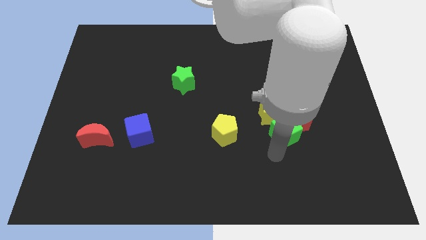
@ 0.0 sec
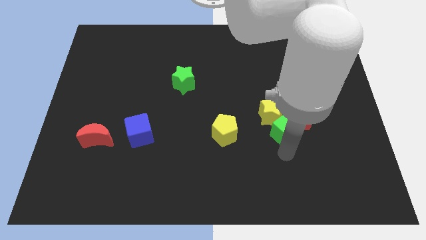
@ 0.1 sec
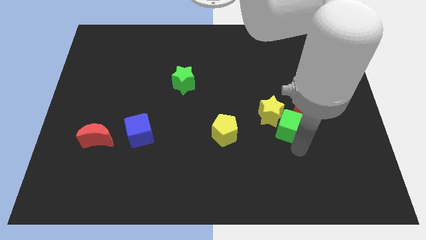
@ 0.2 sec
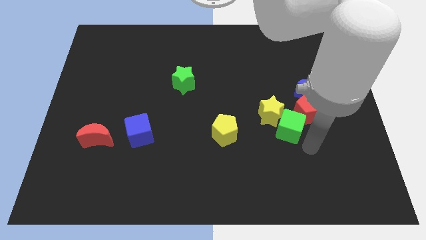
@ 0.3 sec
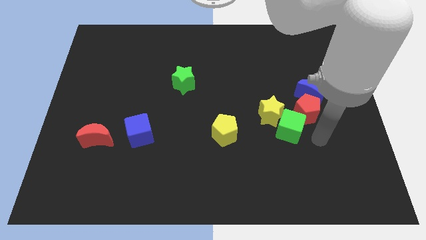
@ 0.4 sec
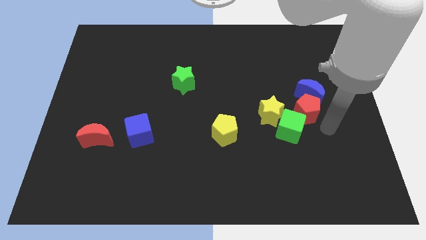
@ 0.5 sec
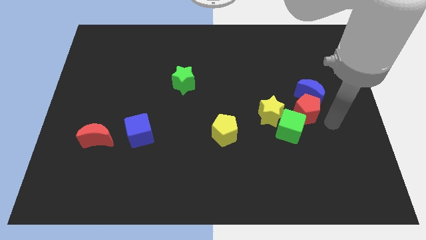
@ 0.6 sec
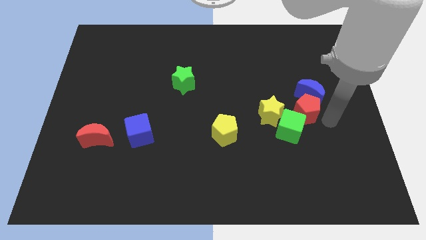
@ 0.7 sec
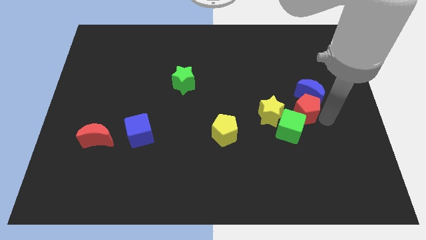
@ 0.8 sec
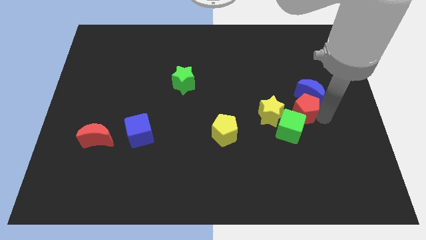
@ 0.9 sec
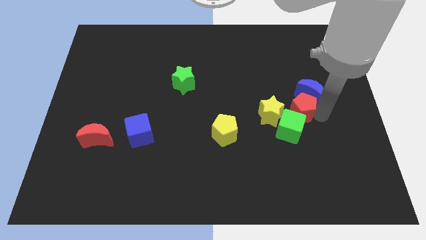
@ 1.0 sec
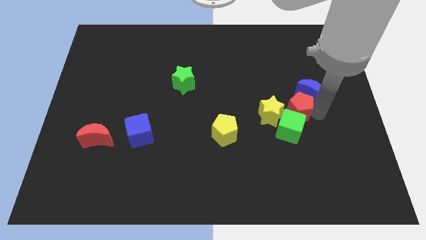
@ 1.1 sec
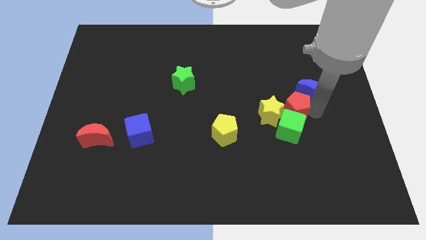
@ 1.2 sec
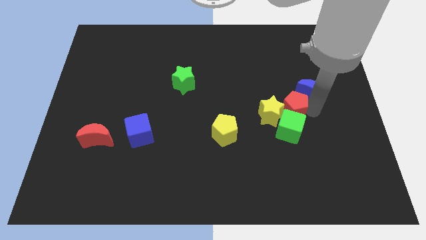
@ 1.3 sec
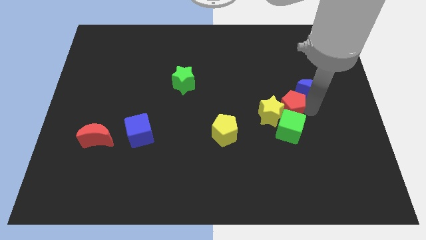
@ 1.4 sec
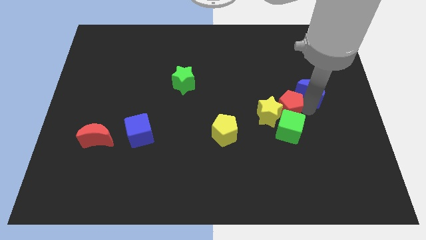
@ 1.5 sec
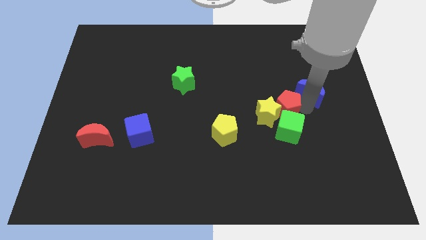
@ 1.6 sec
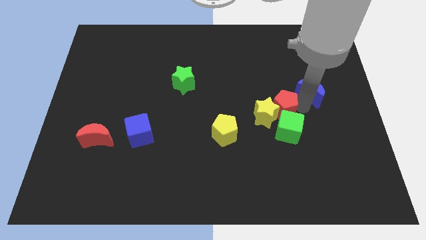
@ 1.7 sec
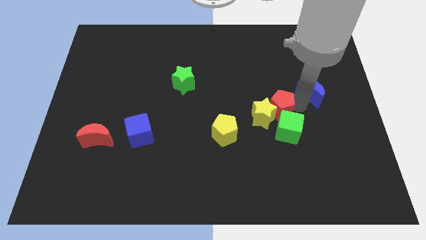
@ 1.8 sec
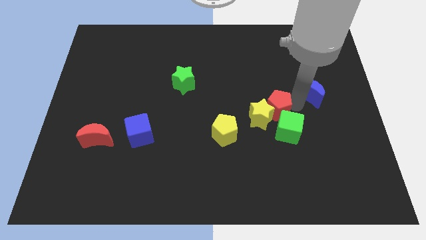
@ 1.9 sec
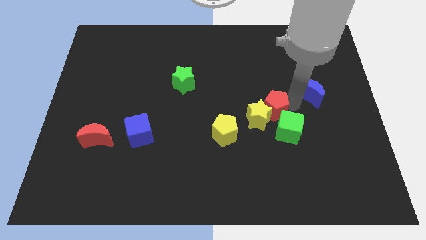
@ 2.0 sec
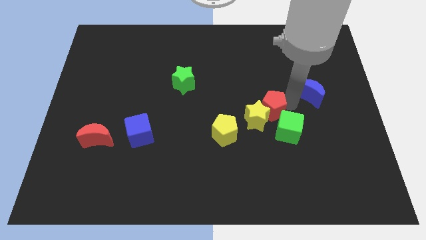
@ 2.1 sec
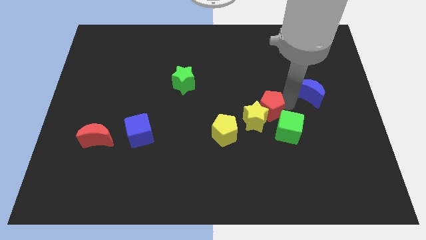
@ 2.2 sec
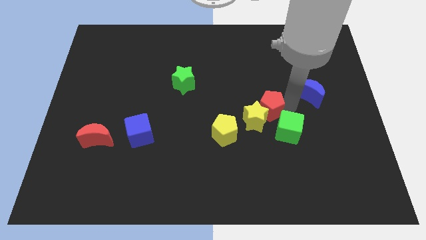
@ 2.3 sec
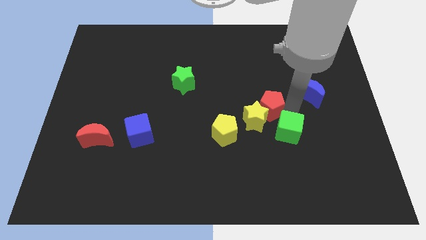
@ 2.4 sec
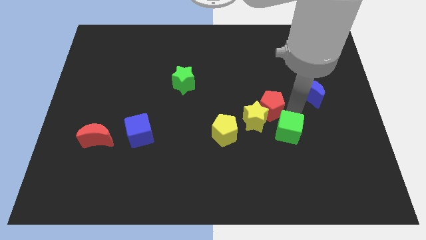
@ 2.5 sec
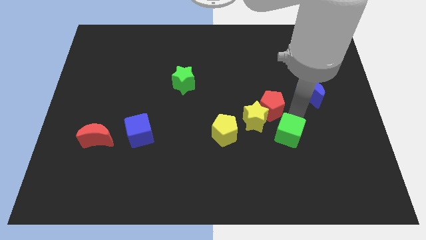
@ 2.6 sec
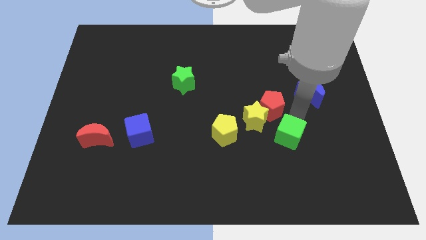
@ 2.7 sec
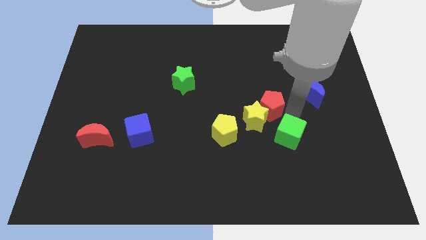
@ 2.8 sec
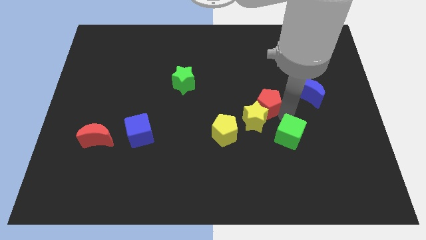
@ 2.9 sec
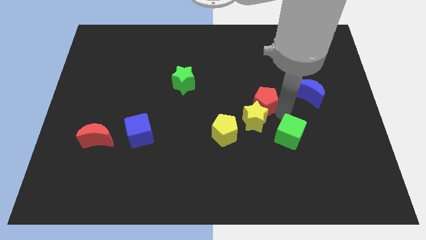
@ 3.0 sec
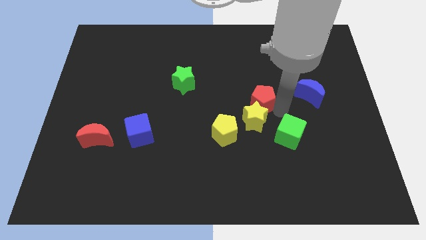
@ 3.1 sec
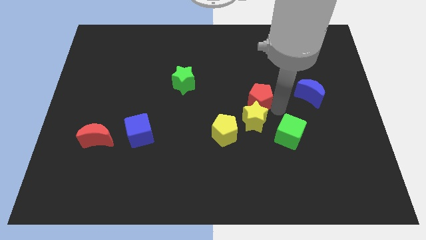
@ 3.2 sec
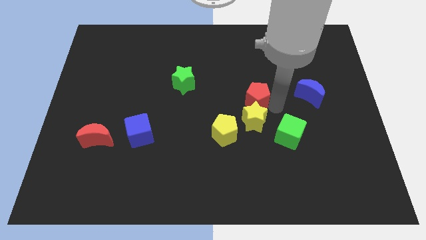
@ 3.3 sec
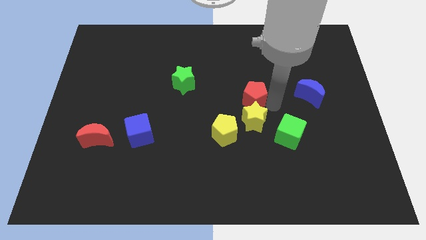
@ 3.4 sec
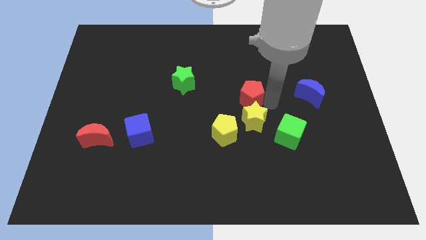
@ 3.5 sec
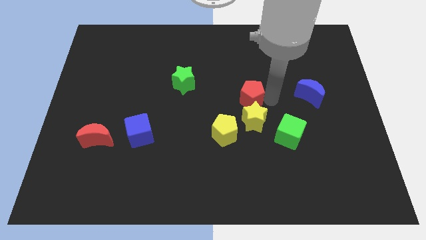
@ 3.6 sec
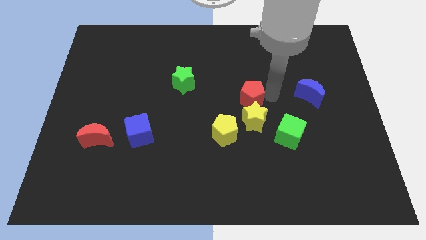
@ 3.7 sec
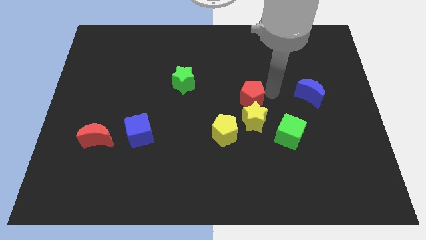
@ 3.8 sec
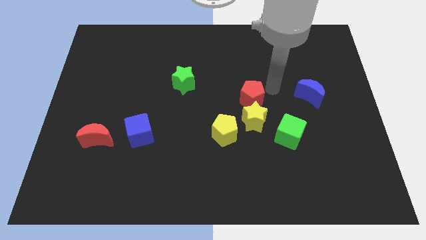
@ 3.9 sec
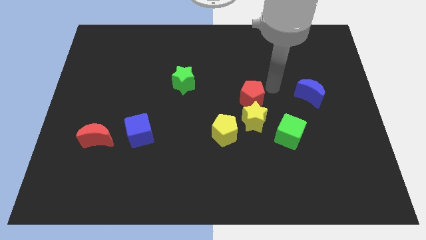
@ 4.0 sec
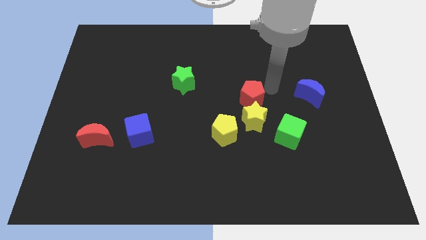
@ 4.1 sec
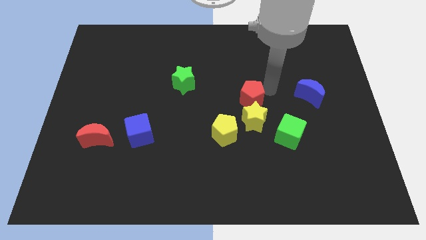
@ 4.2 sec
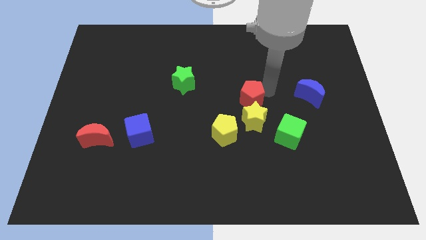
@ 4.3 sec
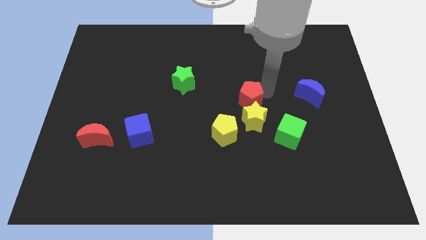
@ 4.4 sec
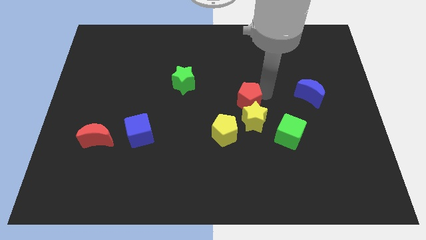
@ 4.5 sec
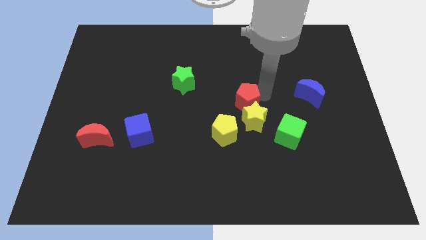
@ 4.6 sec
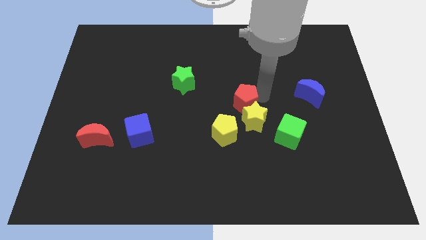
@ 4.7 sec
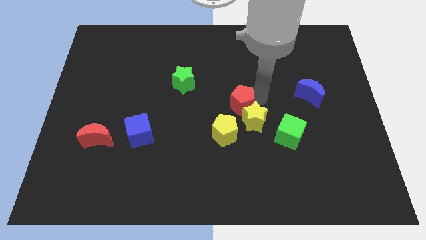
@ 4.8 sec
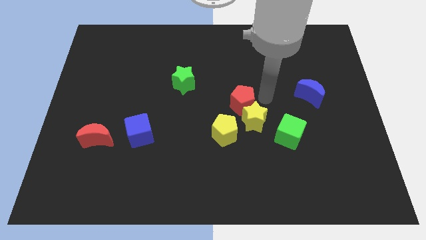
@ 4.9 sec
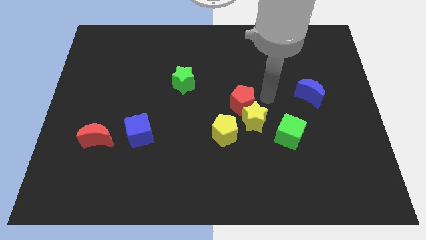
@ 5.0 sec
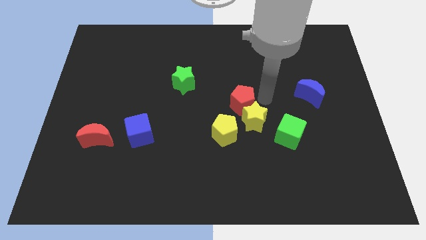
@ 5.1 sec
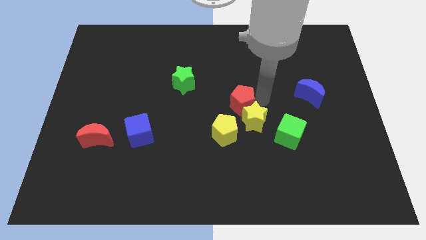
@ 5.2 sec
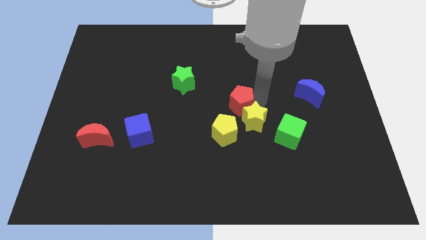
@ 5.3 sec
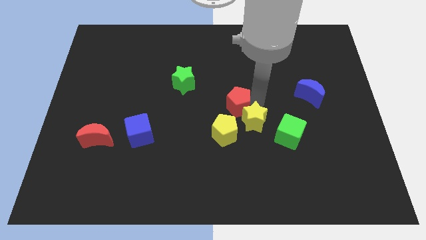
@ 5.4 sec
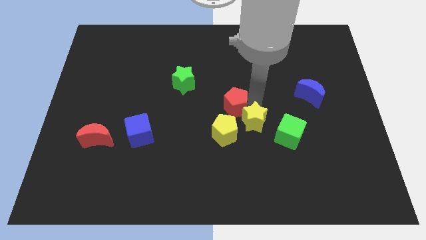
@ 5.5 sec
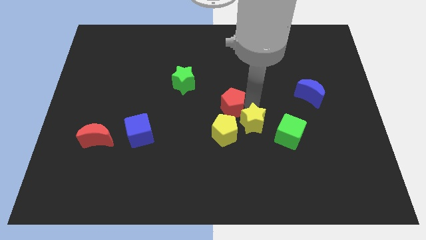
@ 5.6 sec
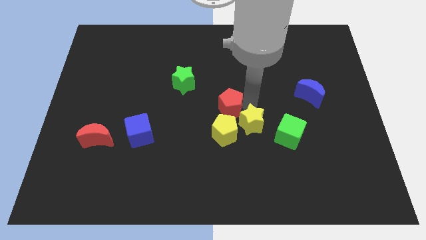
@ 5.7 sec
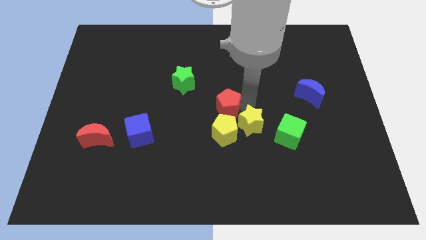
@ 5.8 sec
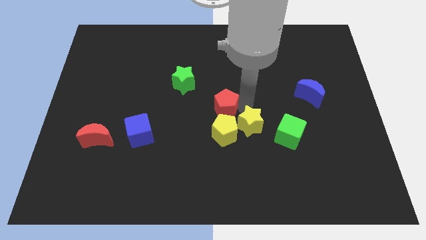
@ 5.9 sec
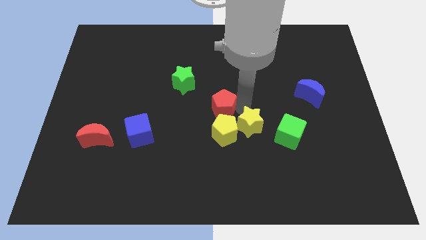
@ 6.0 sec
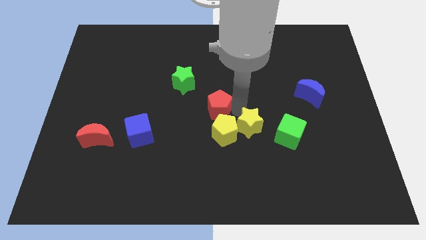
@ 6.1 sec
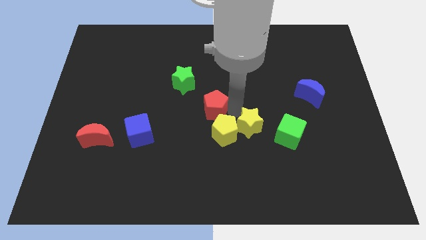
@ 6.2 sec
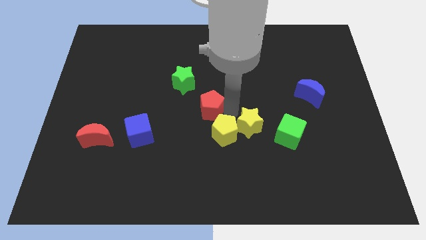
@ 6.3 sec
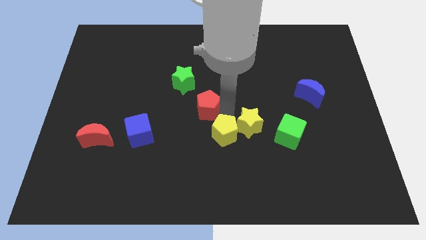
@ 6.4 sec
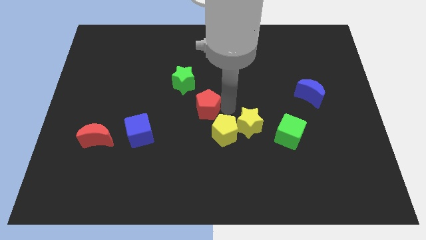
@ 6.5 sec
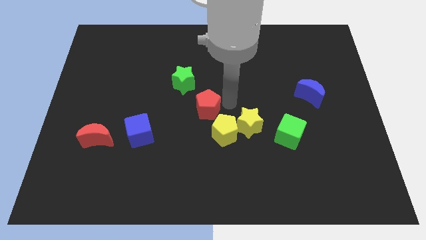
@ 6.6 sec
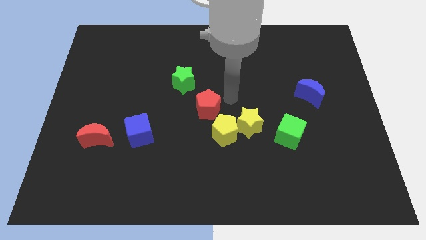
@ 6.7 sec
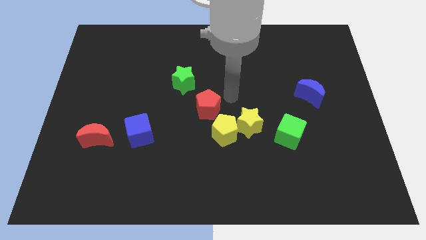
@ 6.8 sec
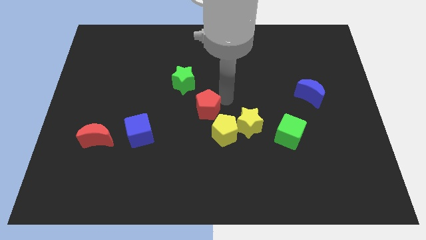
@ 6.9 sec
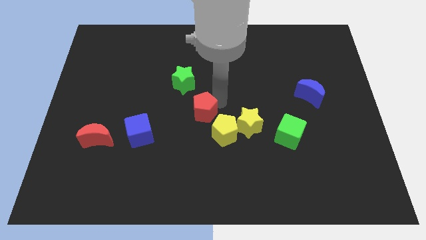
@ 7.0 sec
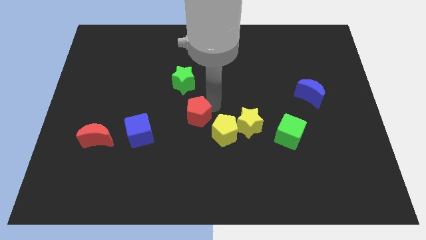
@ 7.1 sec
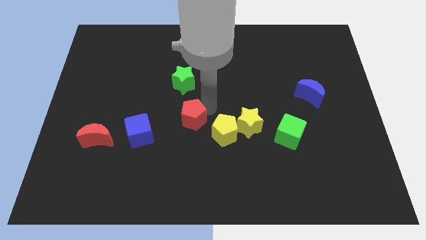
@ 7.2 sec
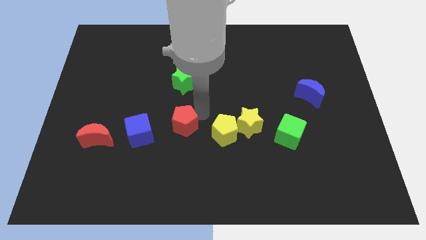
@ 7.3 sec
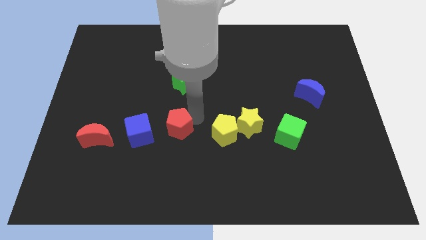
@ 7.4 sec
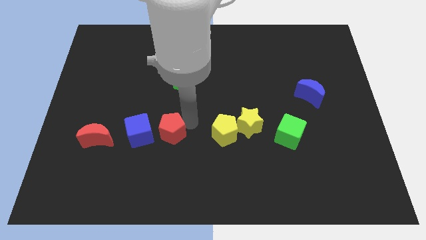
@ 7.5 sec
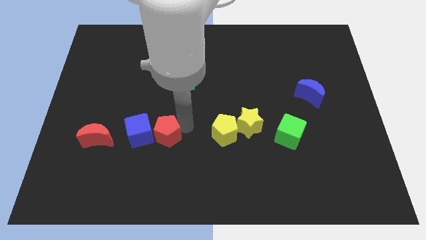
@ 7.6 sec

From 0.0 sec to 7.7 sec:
push the red pentagon close to the blue cube
